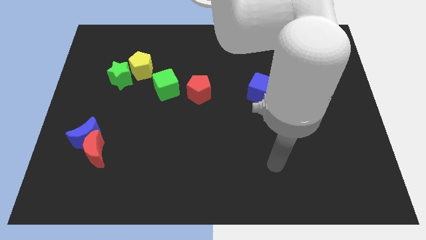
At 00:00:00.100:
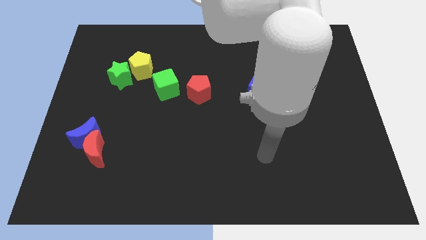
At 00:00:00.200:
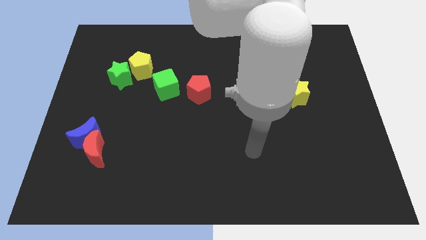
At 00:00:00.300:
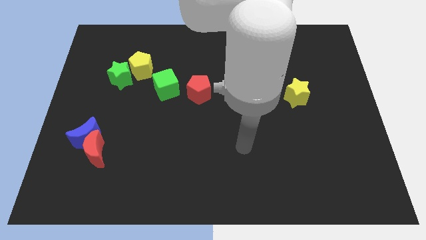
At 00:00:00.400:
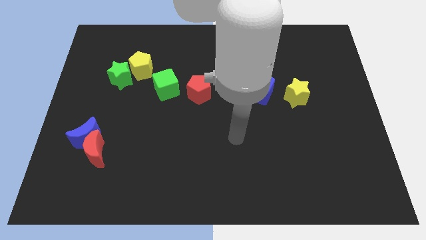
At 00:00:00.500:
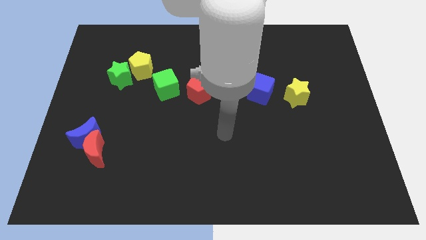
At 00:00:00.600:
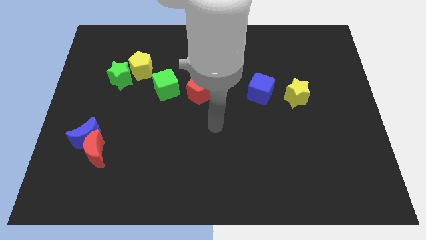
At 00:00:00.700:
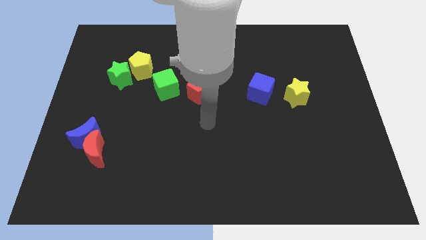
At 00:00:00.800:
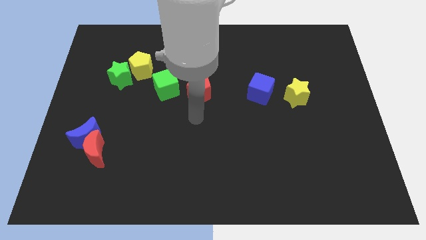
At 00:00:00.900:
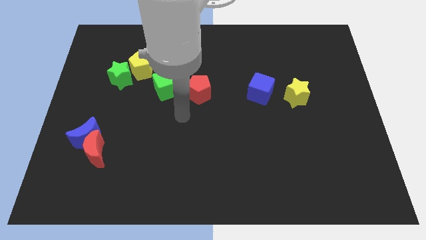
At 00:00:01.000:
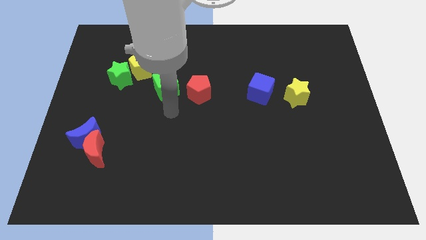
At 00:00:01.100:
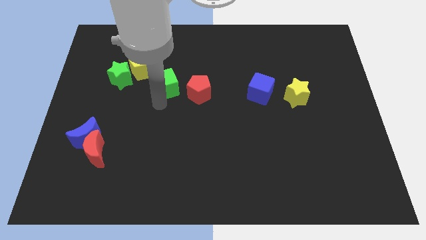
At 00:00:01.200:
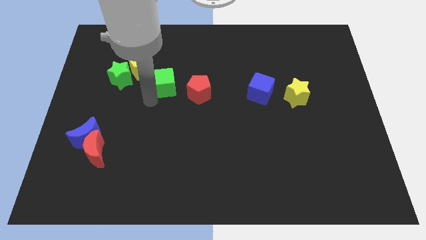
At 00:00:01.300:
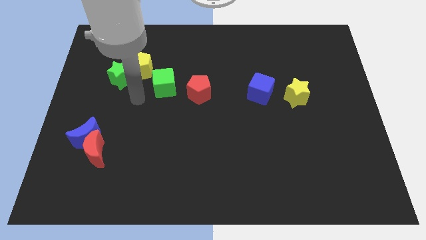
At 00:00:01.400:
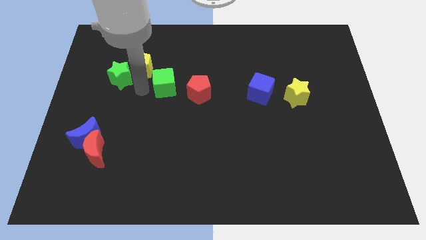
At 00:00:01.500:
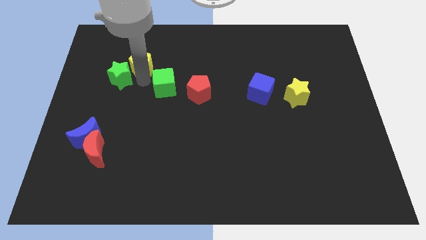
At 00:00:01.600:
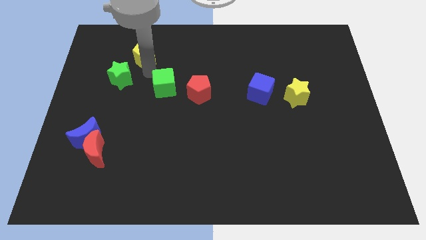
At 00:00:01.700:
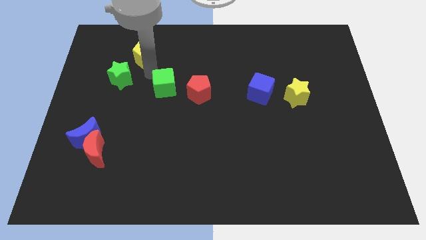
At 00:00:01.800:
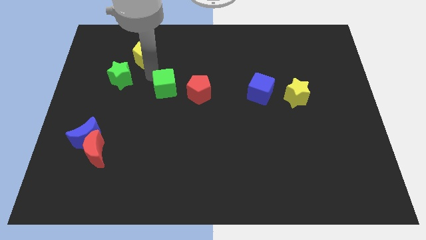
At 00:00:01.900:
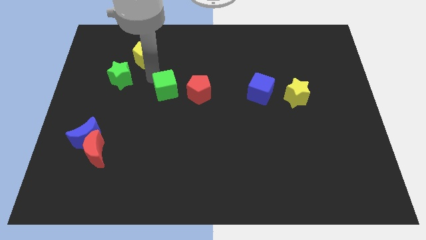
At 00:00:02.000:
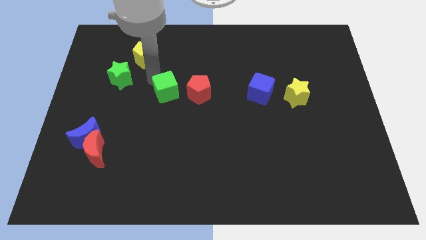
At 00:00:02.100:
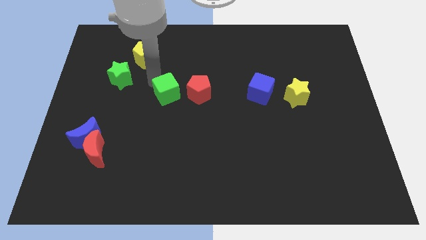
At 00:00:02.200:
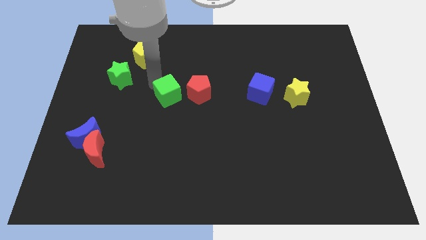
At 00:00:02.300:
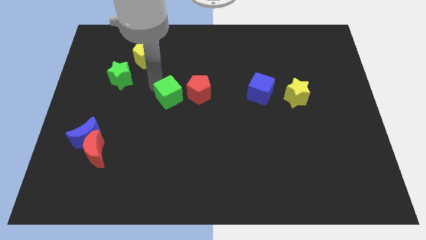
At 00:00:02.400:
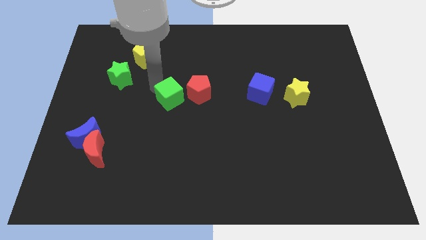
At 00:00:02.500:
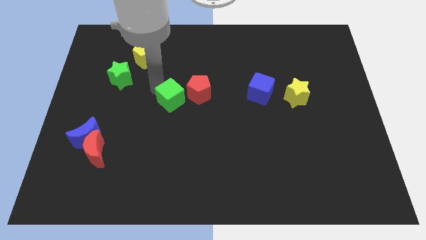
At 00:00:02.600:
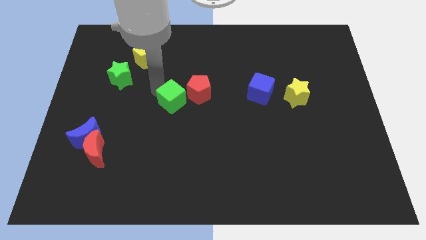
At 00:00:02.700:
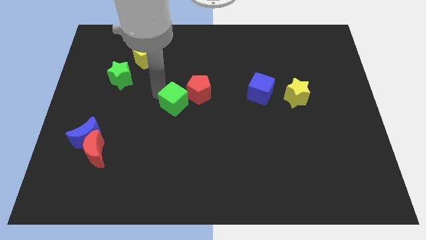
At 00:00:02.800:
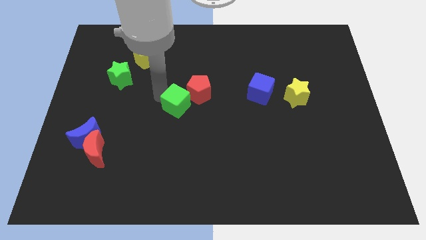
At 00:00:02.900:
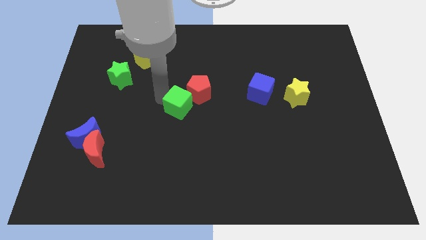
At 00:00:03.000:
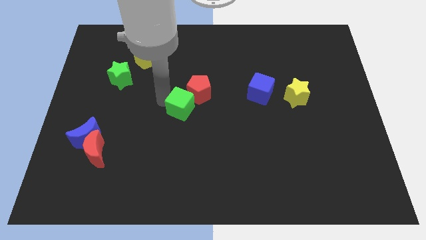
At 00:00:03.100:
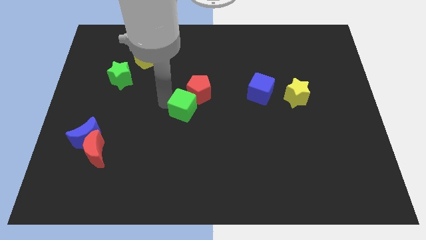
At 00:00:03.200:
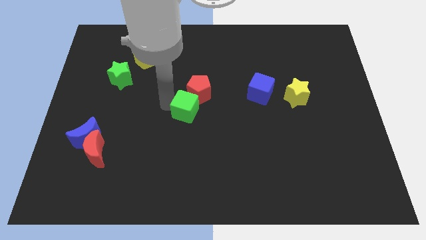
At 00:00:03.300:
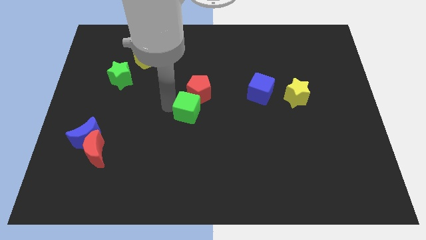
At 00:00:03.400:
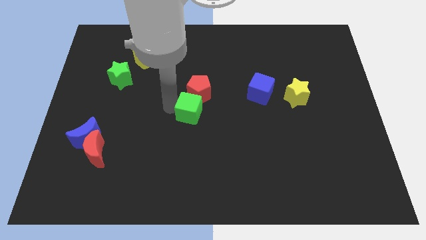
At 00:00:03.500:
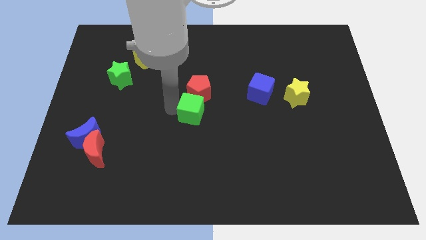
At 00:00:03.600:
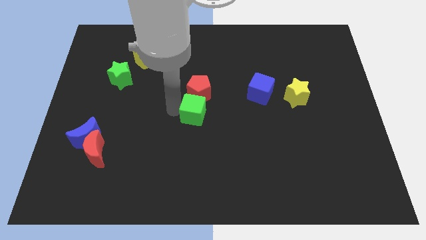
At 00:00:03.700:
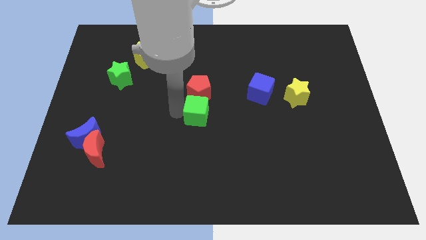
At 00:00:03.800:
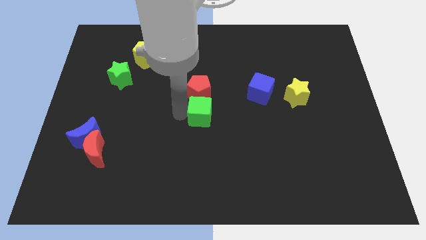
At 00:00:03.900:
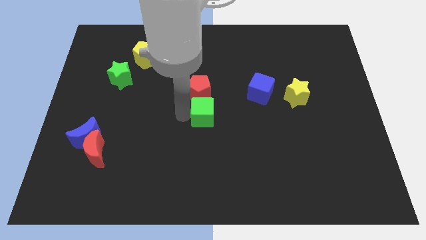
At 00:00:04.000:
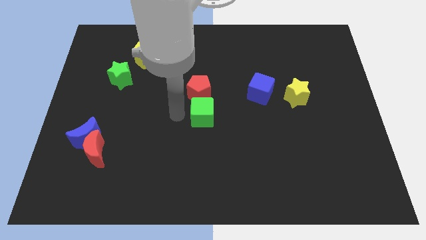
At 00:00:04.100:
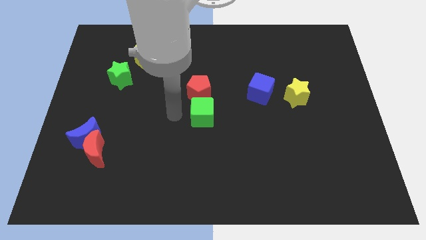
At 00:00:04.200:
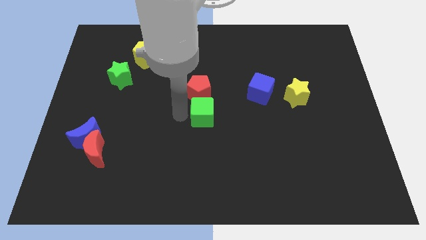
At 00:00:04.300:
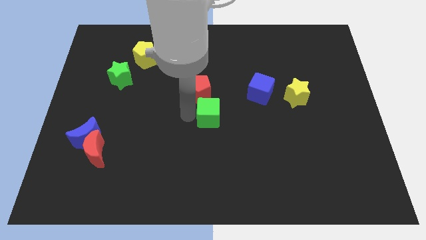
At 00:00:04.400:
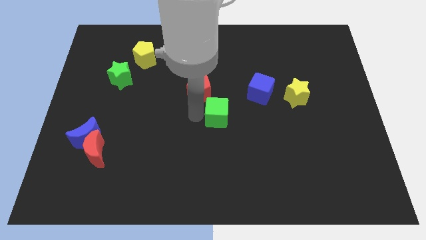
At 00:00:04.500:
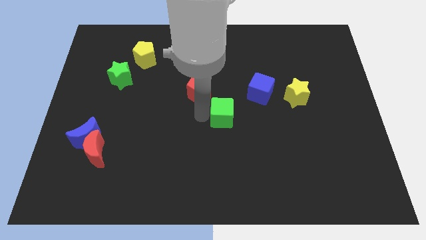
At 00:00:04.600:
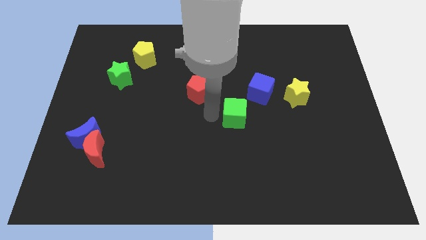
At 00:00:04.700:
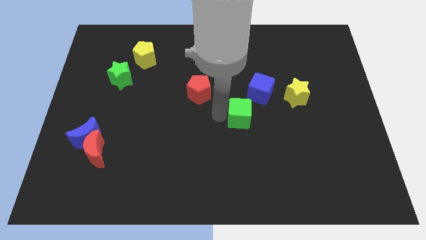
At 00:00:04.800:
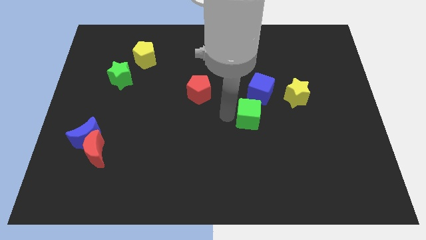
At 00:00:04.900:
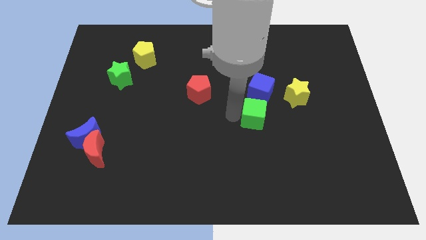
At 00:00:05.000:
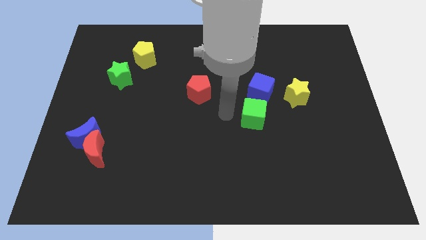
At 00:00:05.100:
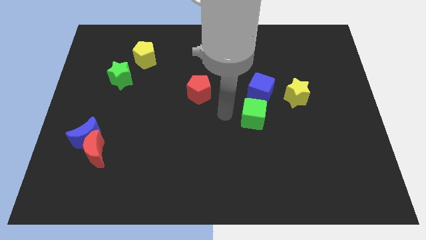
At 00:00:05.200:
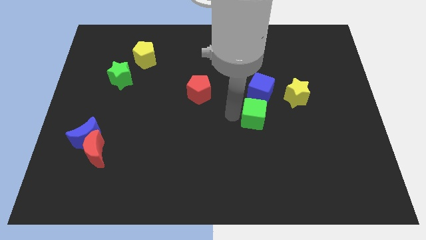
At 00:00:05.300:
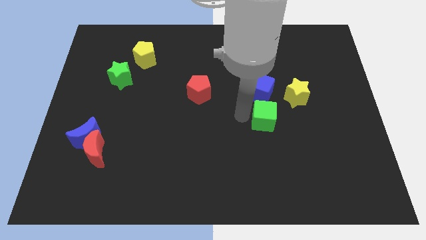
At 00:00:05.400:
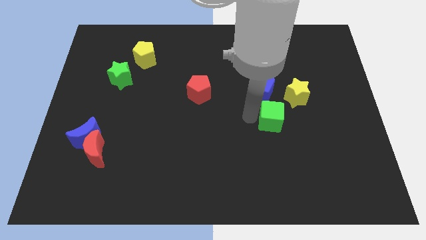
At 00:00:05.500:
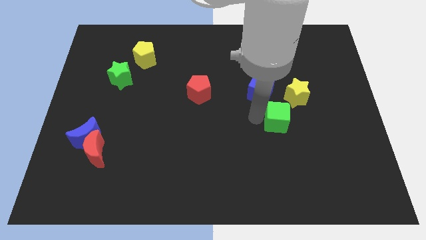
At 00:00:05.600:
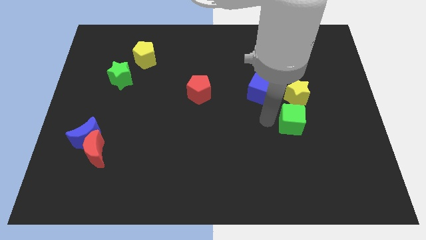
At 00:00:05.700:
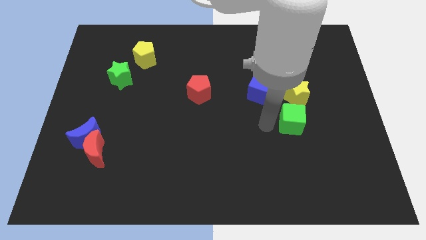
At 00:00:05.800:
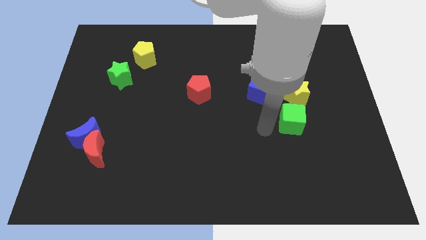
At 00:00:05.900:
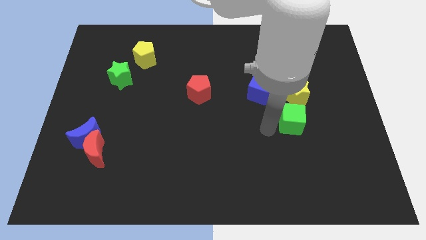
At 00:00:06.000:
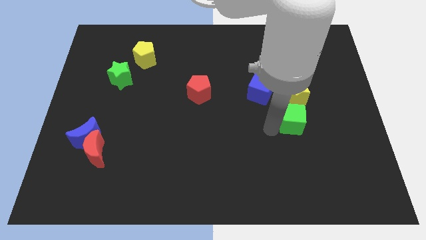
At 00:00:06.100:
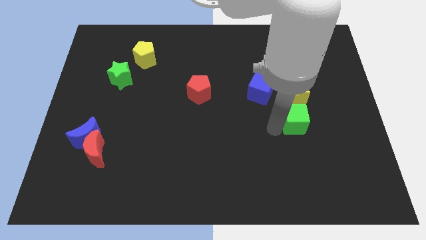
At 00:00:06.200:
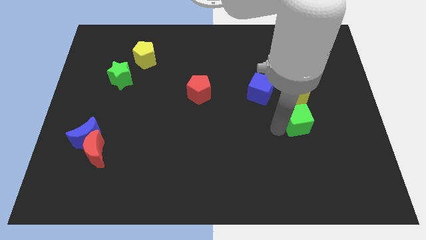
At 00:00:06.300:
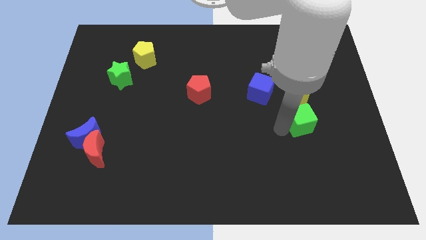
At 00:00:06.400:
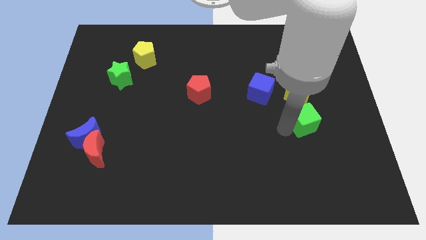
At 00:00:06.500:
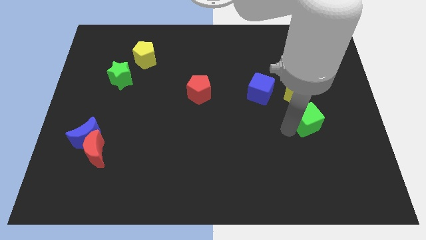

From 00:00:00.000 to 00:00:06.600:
move the green cube to the bottom right of the yellow star

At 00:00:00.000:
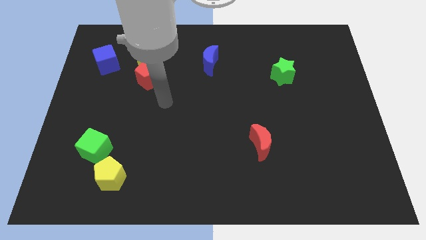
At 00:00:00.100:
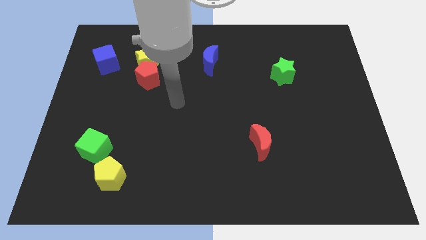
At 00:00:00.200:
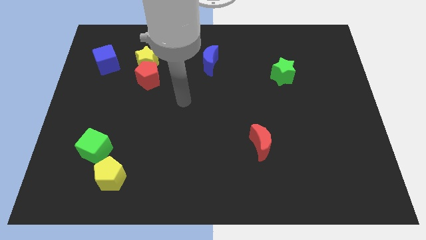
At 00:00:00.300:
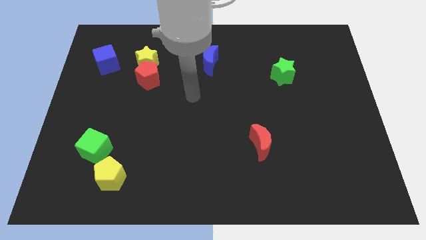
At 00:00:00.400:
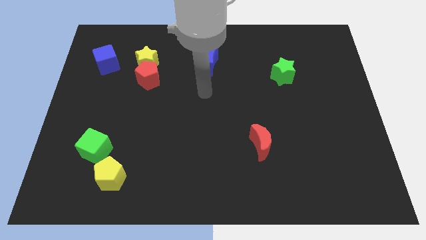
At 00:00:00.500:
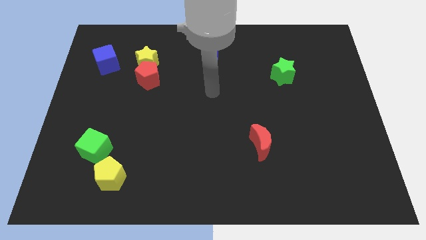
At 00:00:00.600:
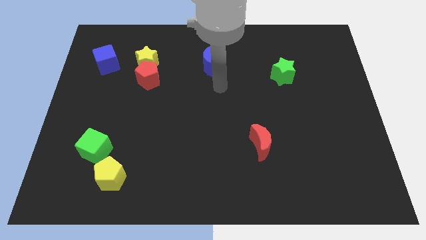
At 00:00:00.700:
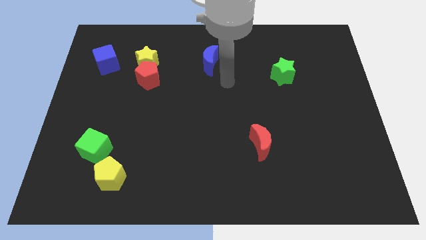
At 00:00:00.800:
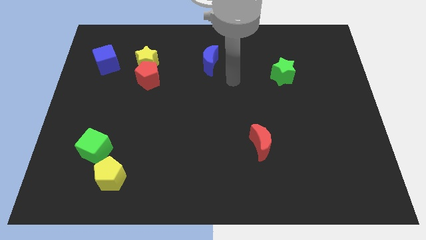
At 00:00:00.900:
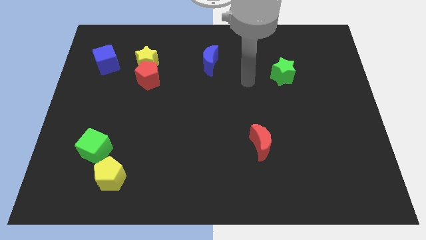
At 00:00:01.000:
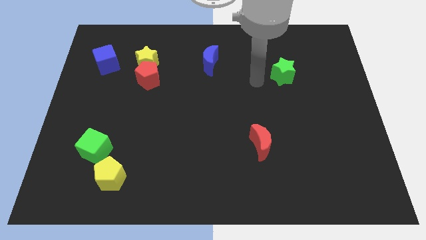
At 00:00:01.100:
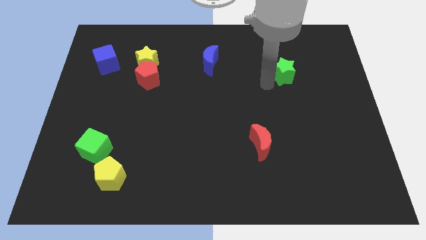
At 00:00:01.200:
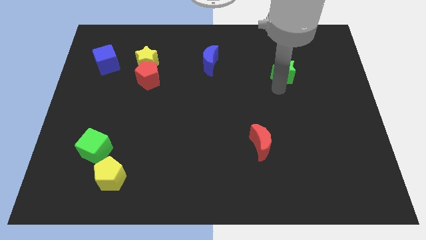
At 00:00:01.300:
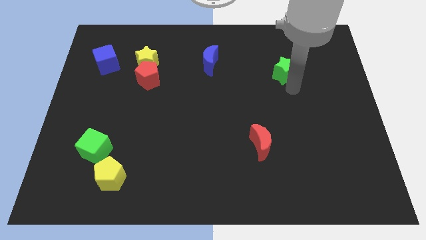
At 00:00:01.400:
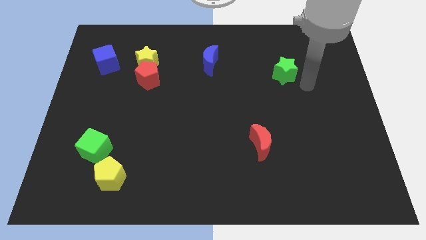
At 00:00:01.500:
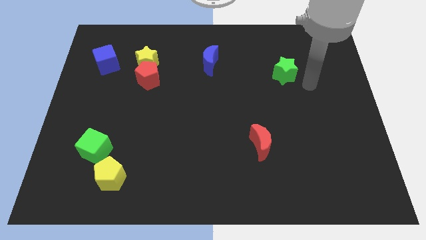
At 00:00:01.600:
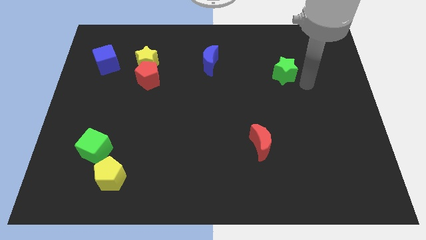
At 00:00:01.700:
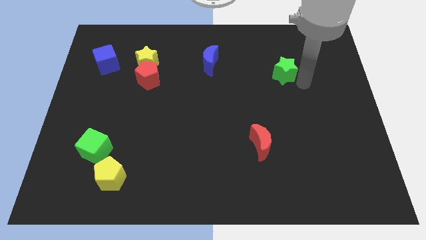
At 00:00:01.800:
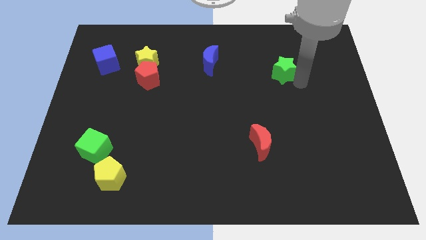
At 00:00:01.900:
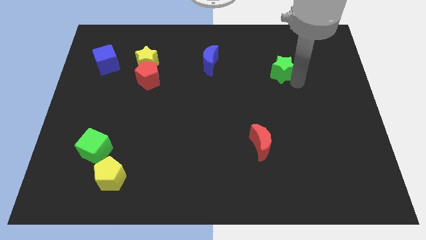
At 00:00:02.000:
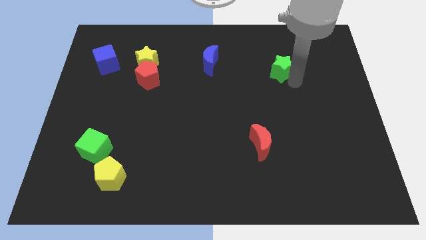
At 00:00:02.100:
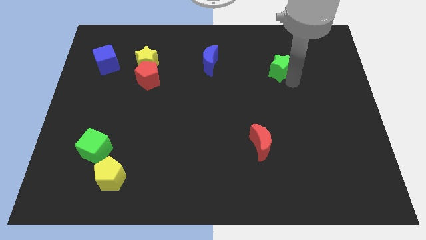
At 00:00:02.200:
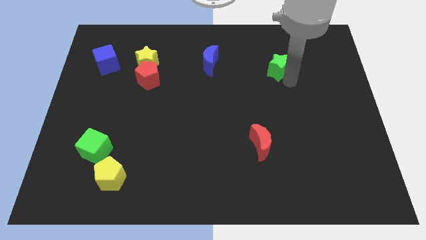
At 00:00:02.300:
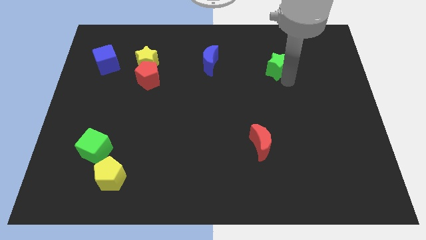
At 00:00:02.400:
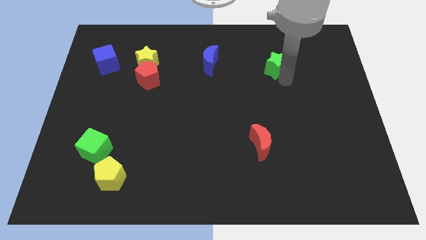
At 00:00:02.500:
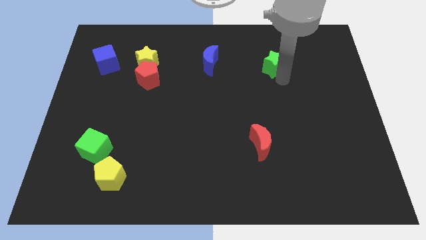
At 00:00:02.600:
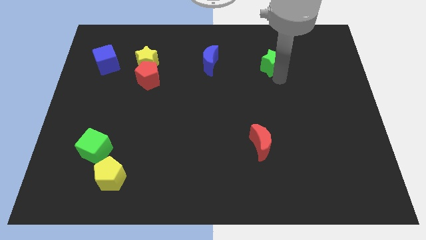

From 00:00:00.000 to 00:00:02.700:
push the green star just right of the blue moon
